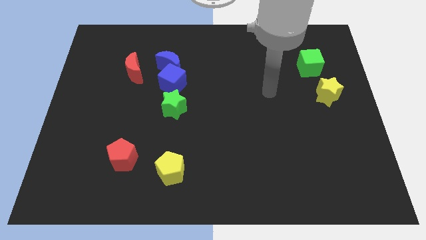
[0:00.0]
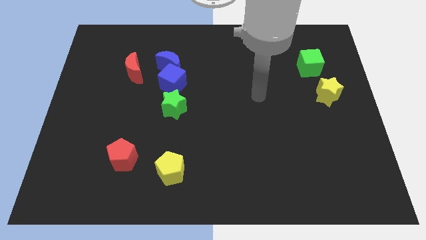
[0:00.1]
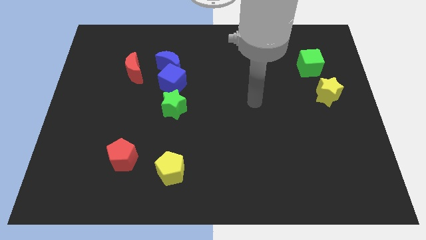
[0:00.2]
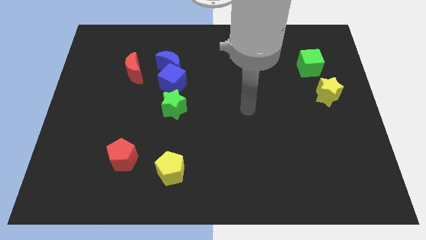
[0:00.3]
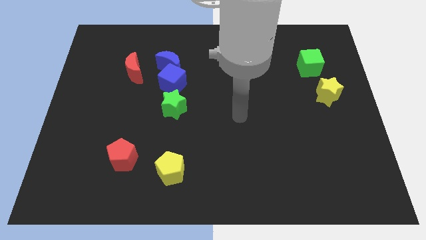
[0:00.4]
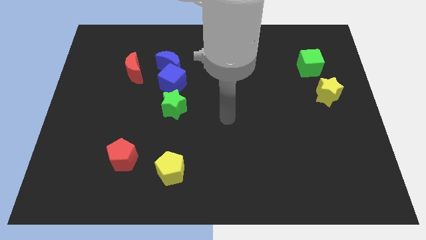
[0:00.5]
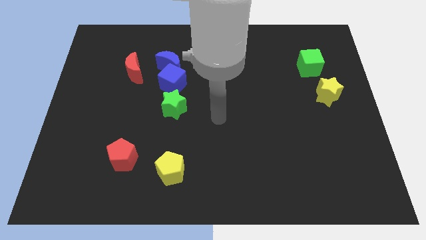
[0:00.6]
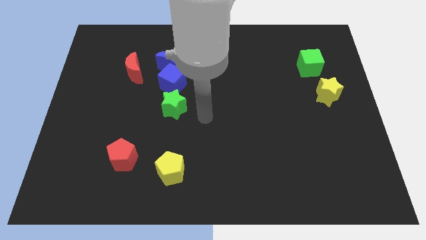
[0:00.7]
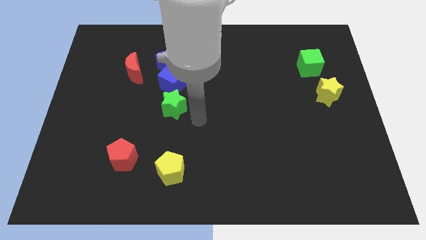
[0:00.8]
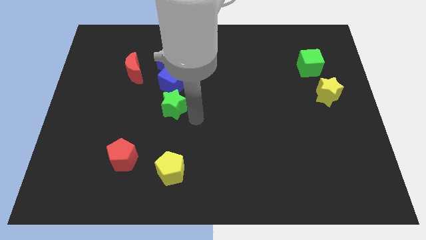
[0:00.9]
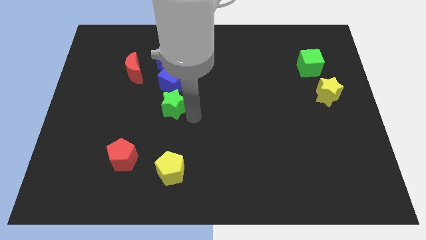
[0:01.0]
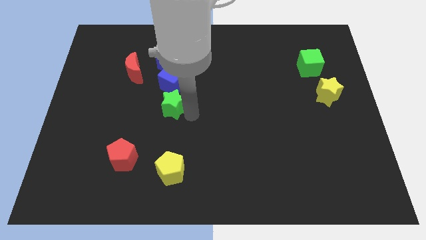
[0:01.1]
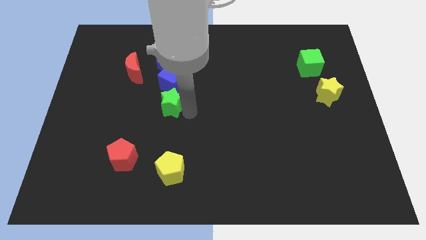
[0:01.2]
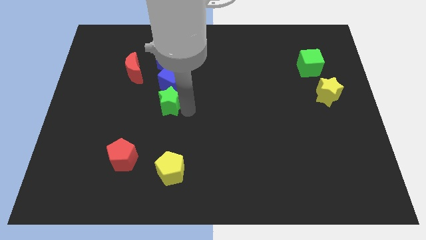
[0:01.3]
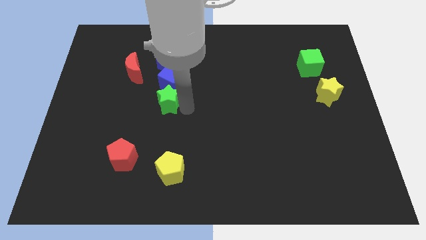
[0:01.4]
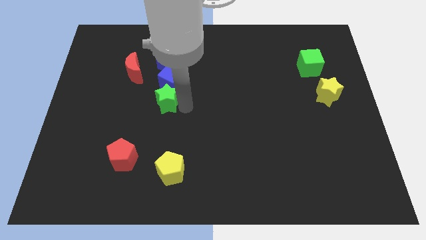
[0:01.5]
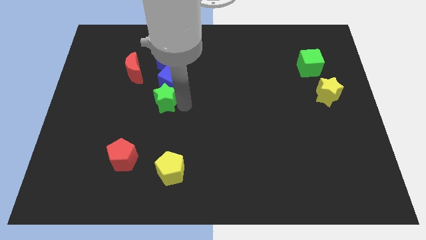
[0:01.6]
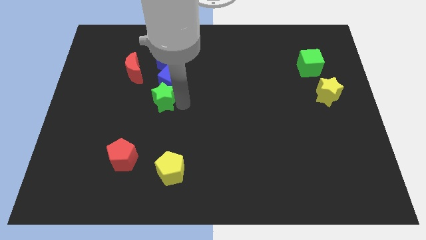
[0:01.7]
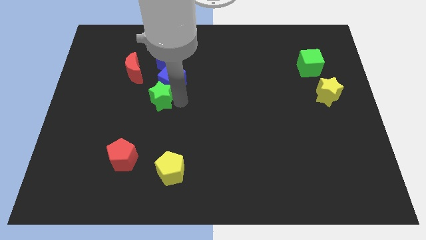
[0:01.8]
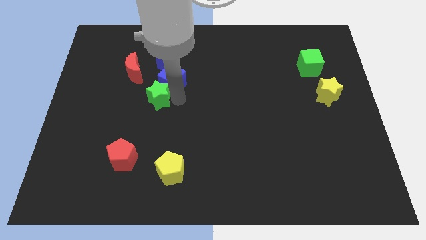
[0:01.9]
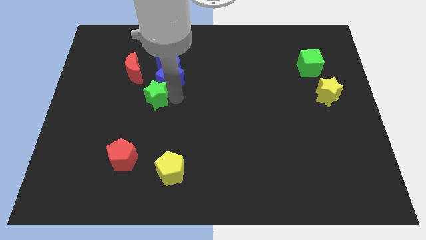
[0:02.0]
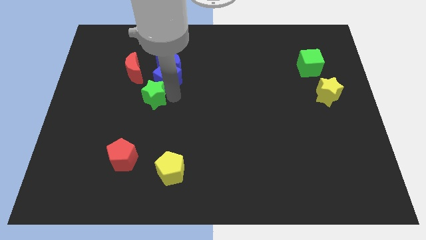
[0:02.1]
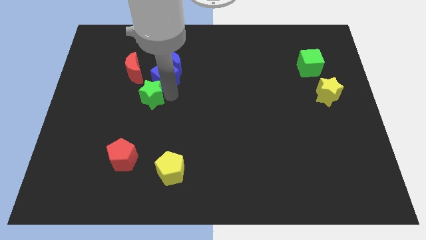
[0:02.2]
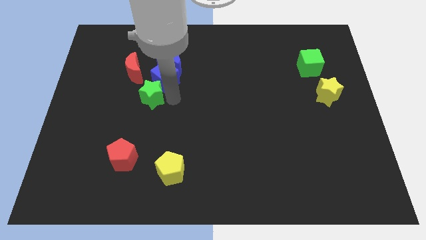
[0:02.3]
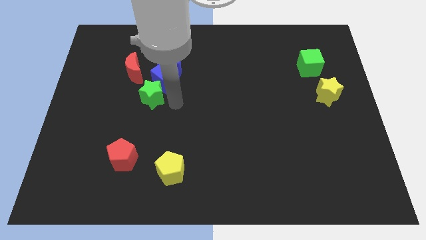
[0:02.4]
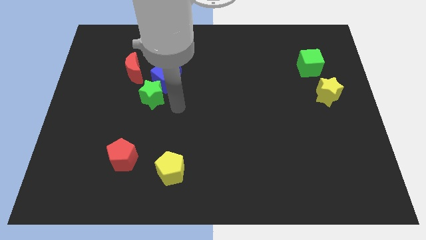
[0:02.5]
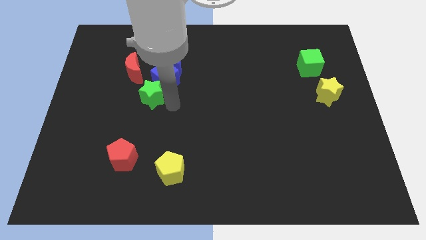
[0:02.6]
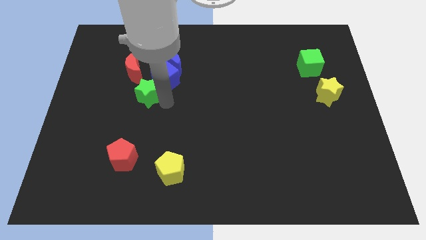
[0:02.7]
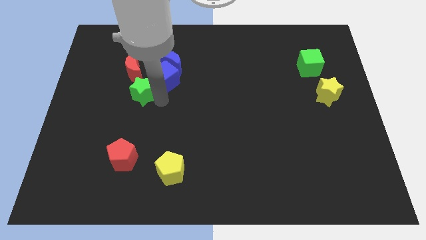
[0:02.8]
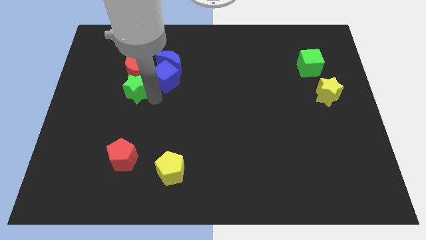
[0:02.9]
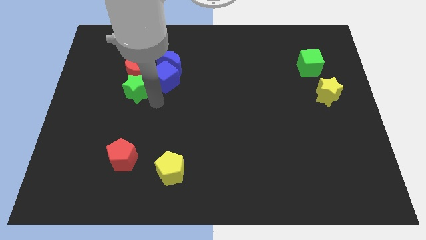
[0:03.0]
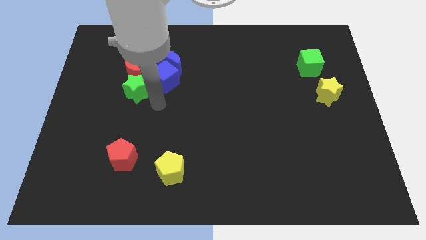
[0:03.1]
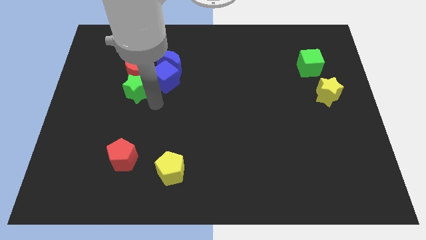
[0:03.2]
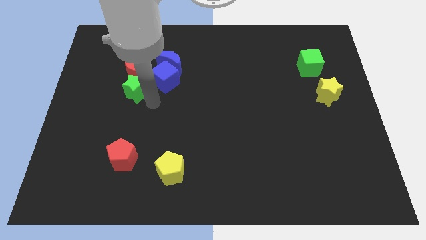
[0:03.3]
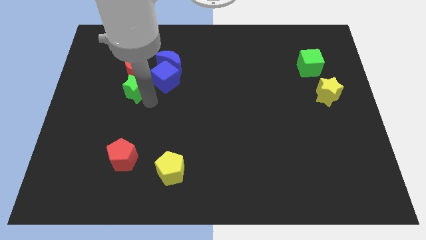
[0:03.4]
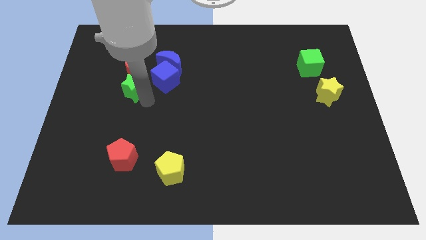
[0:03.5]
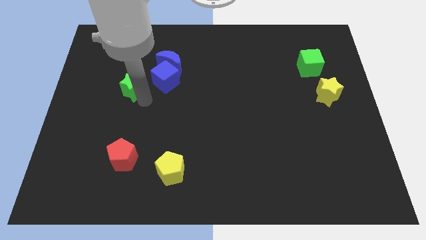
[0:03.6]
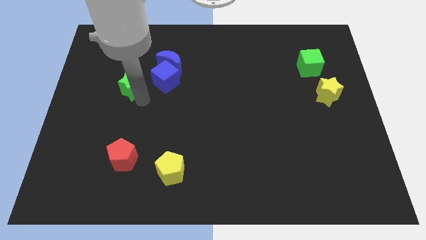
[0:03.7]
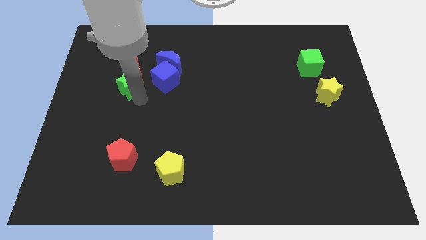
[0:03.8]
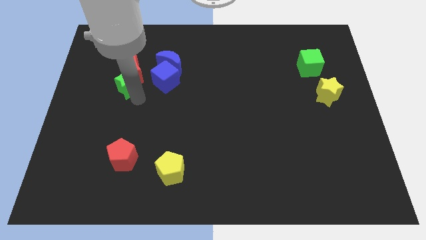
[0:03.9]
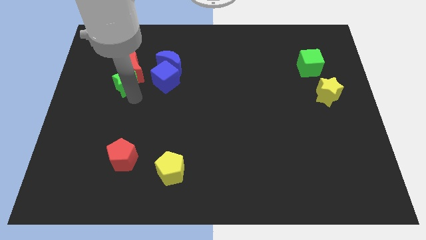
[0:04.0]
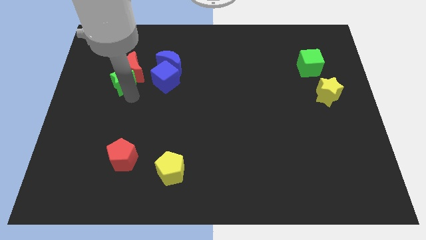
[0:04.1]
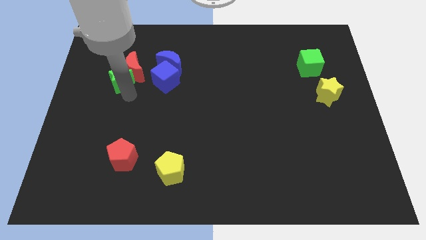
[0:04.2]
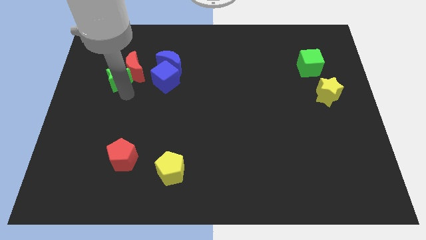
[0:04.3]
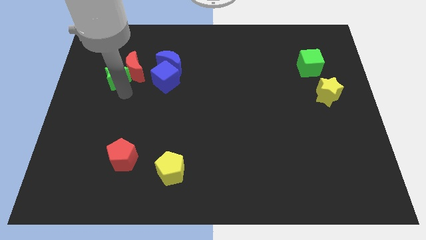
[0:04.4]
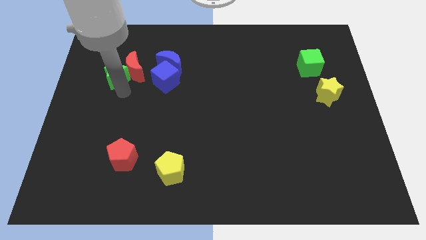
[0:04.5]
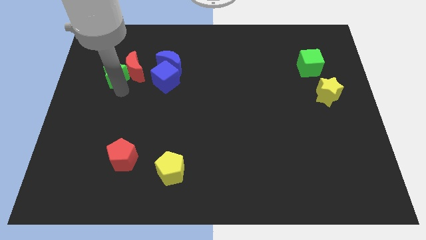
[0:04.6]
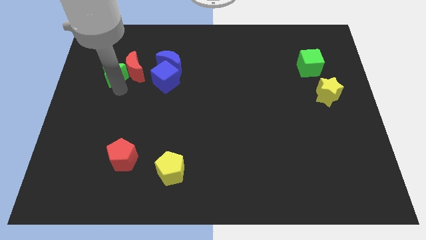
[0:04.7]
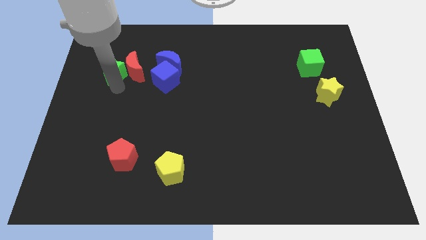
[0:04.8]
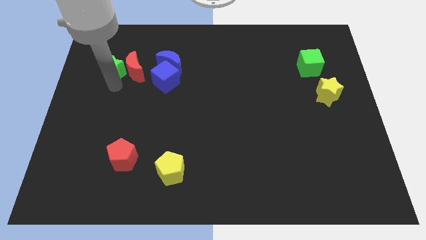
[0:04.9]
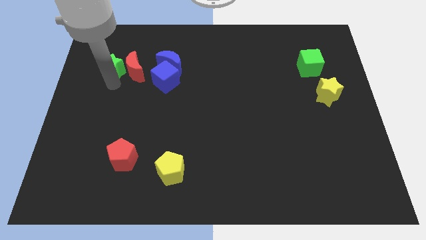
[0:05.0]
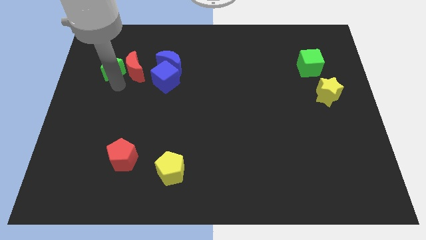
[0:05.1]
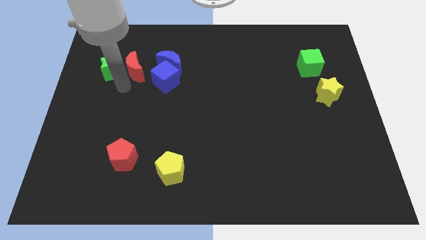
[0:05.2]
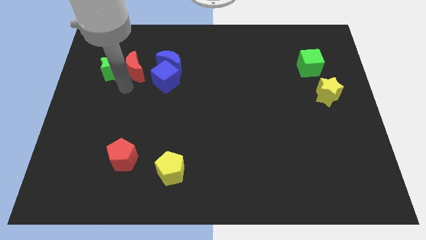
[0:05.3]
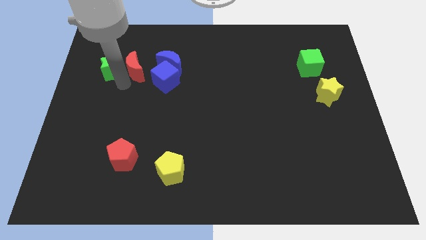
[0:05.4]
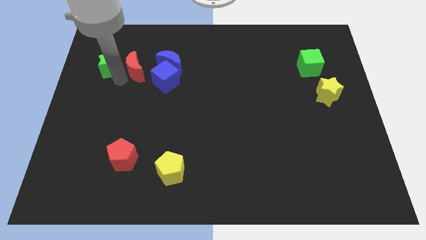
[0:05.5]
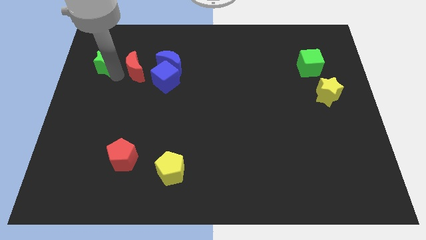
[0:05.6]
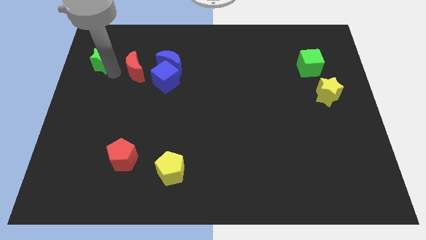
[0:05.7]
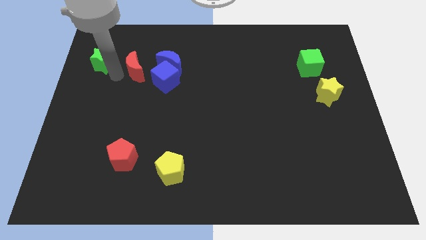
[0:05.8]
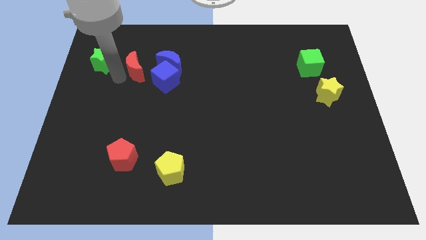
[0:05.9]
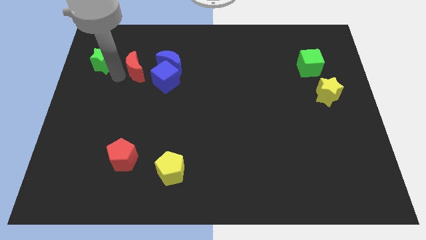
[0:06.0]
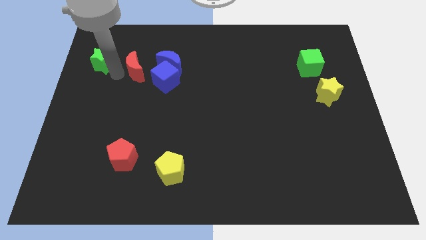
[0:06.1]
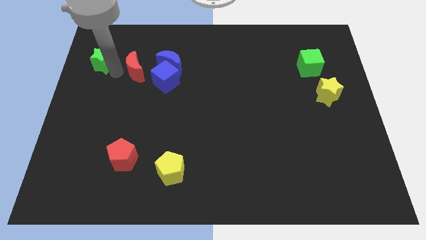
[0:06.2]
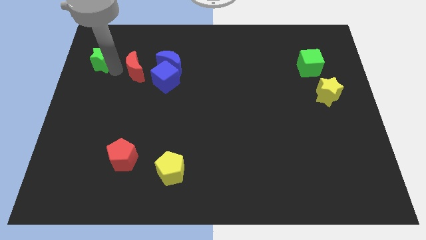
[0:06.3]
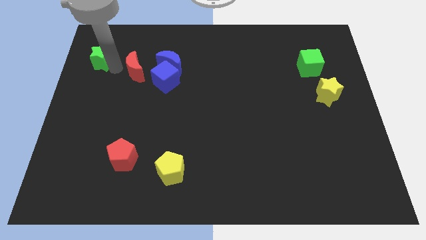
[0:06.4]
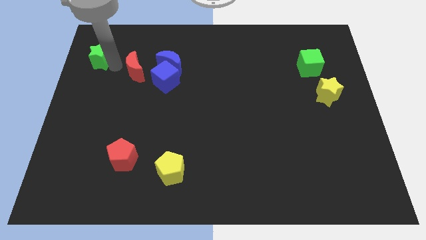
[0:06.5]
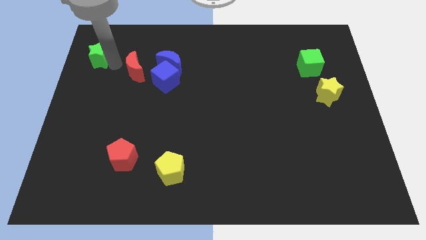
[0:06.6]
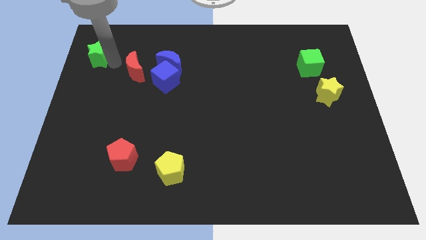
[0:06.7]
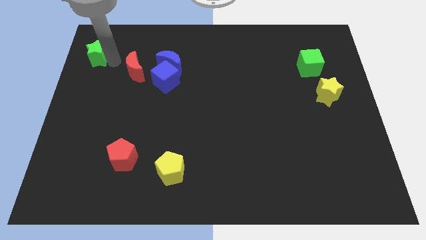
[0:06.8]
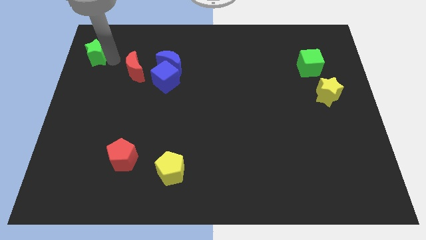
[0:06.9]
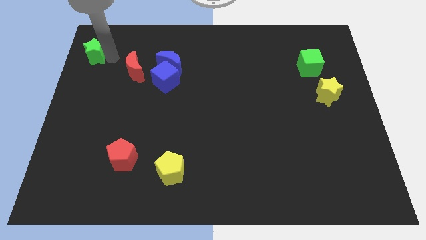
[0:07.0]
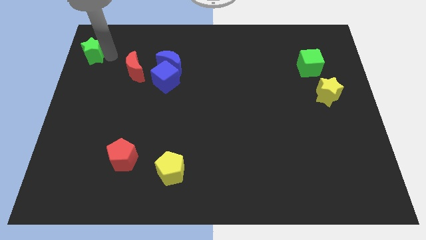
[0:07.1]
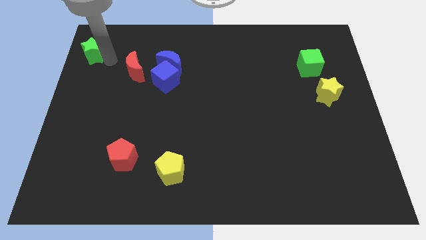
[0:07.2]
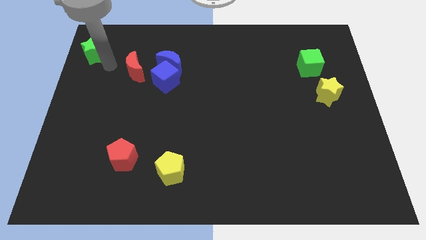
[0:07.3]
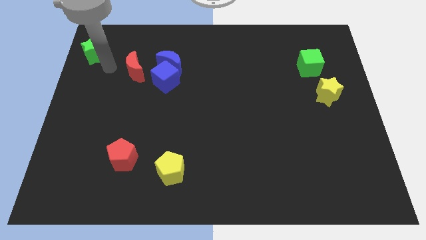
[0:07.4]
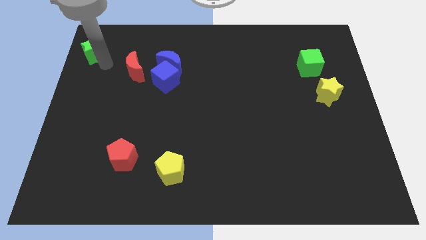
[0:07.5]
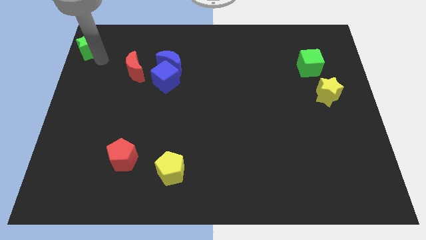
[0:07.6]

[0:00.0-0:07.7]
move the green star to the upper left corner
